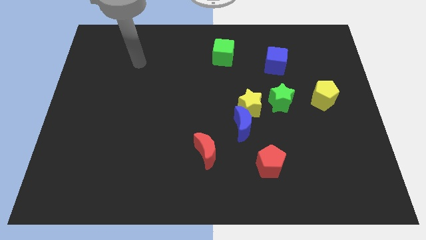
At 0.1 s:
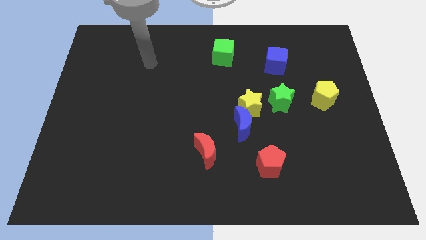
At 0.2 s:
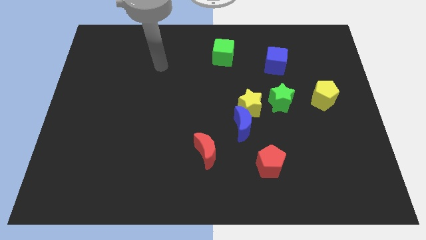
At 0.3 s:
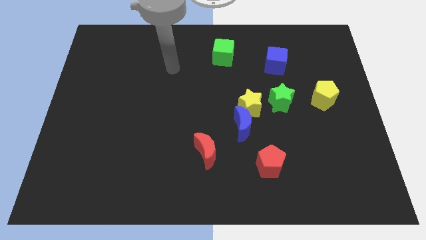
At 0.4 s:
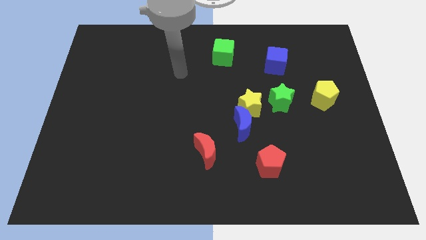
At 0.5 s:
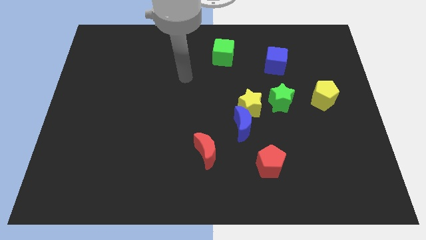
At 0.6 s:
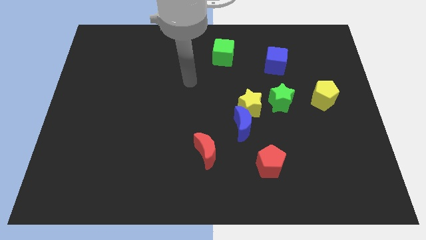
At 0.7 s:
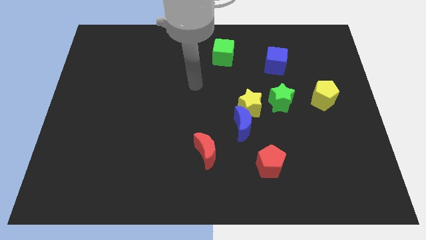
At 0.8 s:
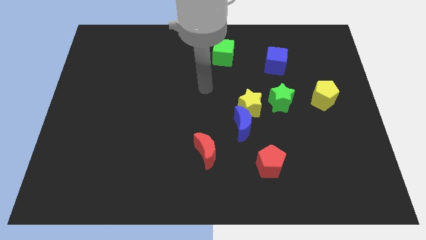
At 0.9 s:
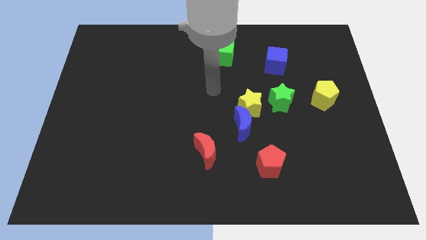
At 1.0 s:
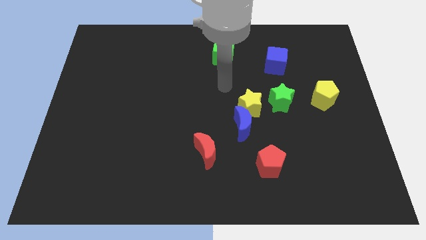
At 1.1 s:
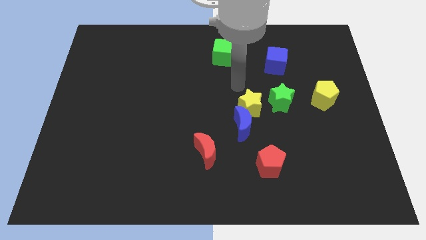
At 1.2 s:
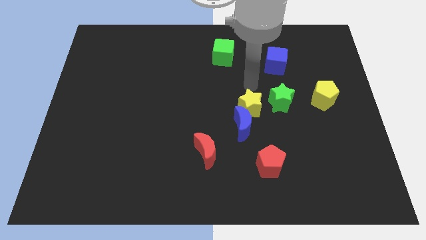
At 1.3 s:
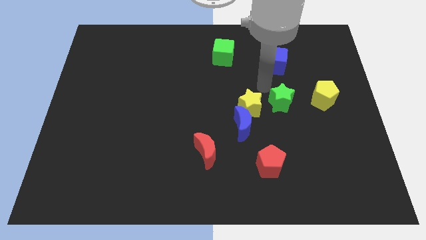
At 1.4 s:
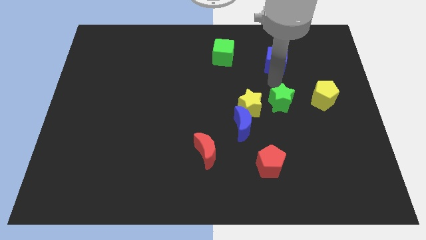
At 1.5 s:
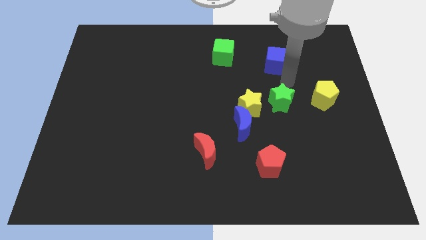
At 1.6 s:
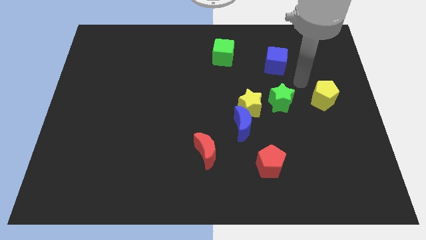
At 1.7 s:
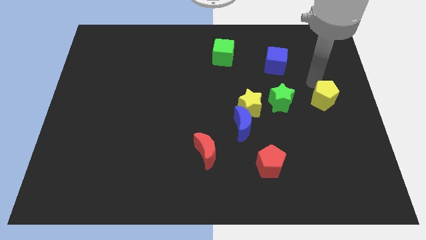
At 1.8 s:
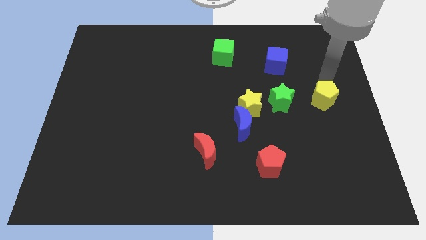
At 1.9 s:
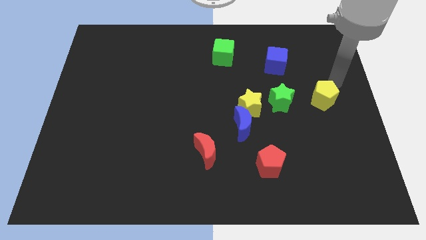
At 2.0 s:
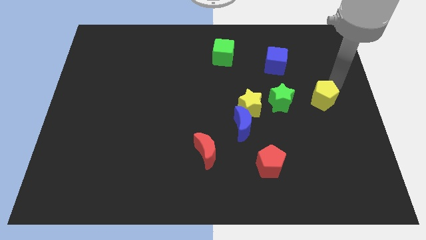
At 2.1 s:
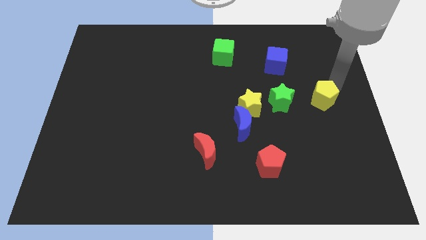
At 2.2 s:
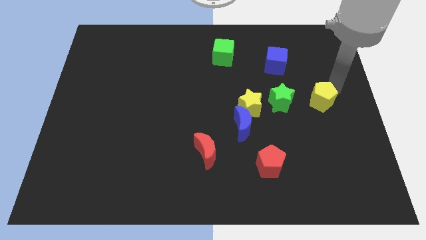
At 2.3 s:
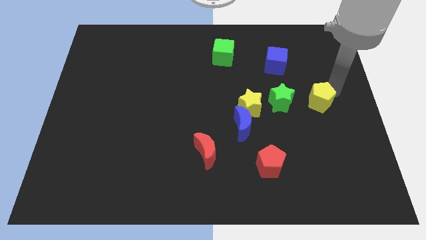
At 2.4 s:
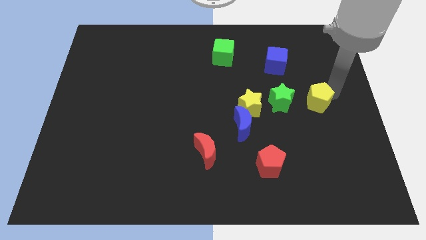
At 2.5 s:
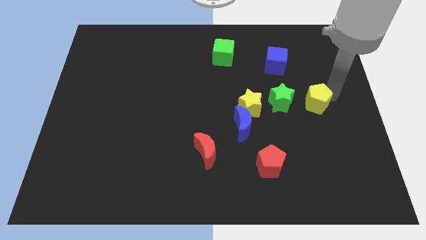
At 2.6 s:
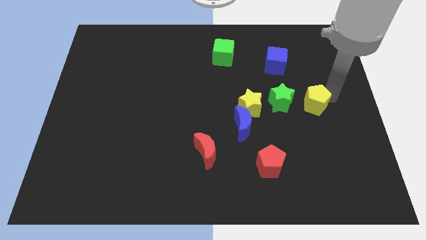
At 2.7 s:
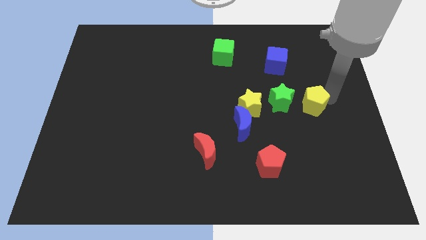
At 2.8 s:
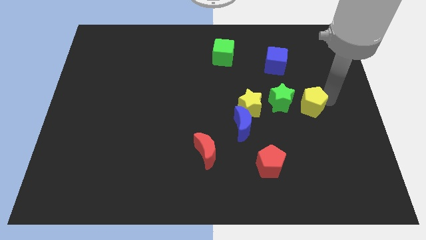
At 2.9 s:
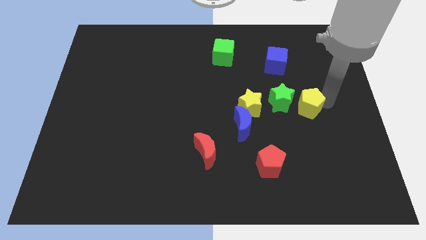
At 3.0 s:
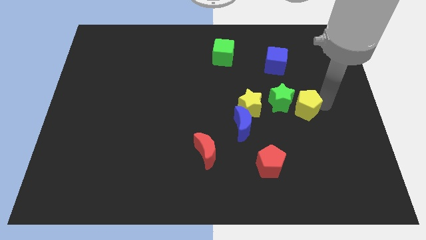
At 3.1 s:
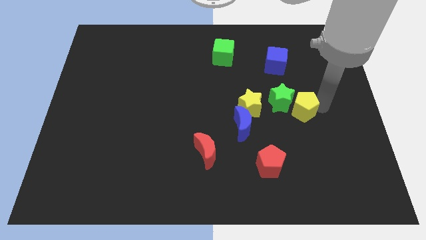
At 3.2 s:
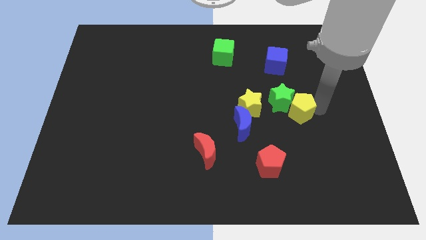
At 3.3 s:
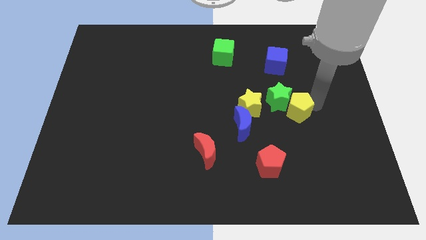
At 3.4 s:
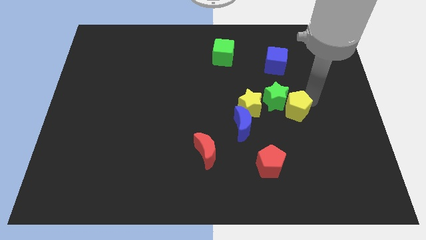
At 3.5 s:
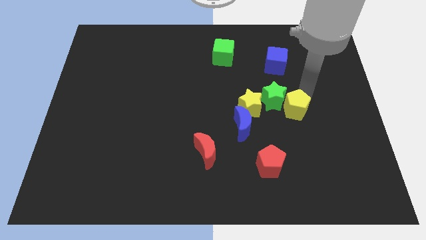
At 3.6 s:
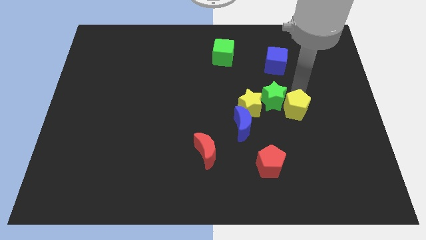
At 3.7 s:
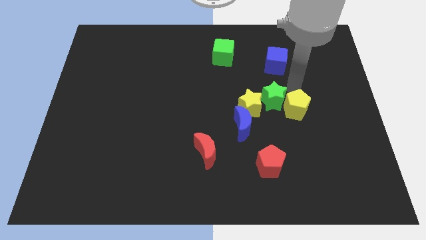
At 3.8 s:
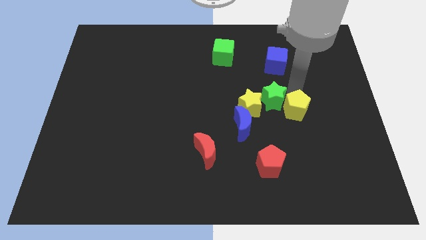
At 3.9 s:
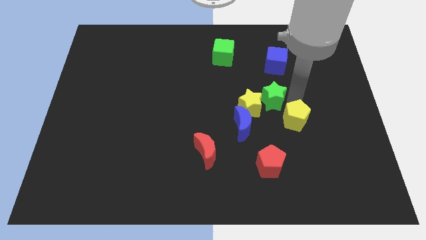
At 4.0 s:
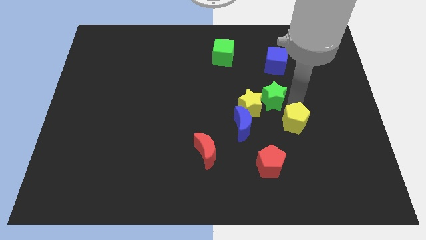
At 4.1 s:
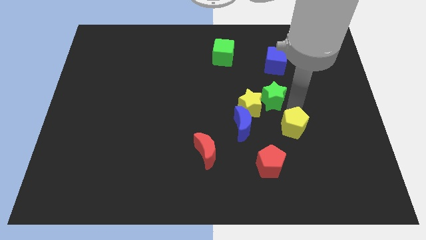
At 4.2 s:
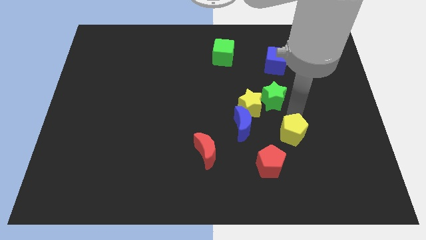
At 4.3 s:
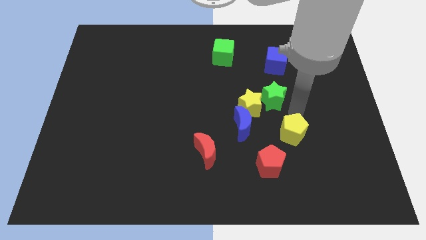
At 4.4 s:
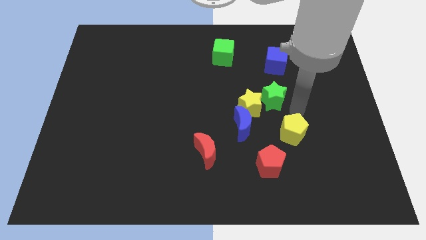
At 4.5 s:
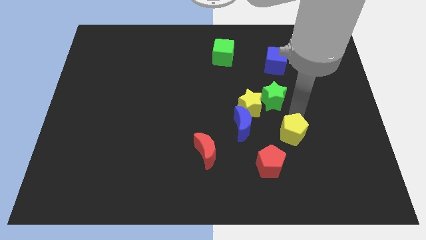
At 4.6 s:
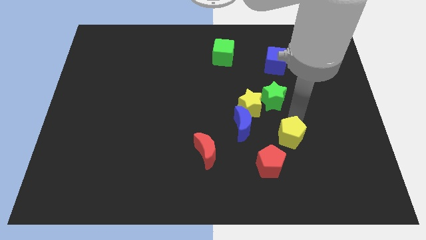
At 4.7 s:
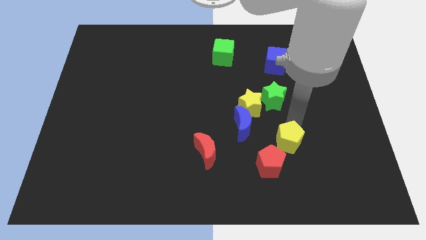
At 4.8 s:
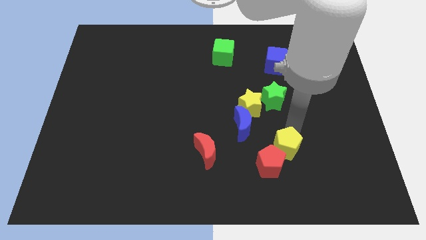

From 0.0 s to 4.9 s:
move the yellow pentagon to the red pentagon

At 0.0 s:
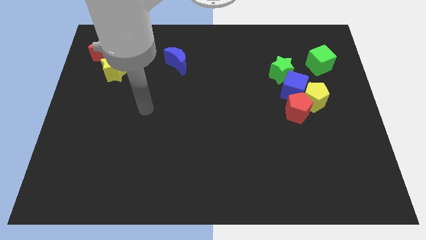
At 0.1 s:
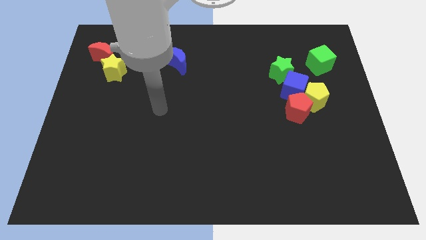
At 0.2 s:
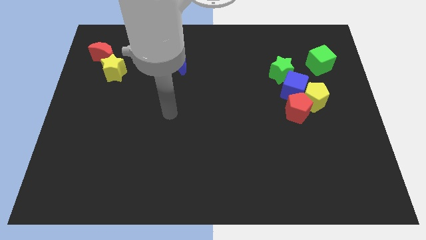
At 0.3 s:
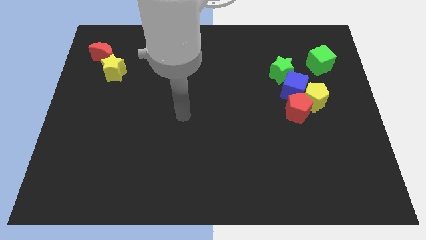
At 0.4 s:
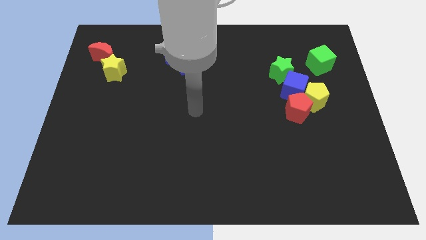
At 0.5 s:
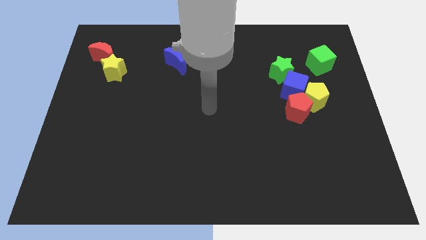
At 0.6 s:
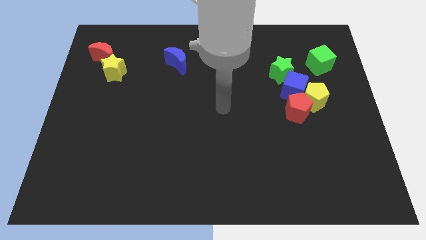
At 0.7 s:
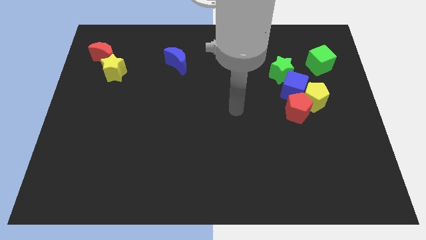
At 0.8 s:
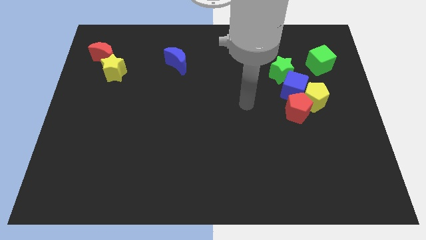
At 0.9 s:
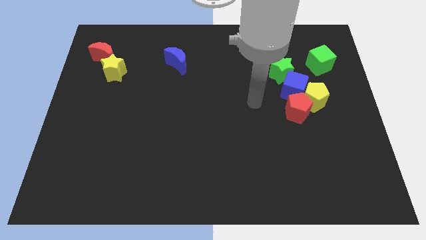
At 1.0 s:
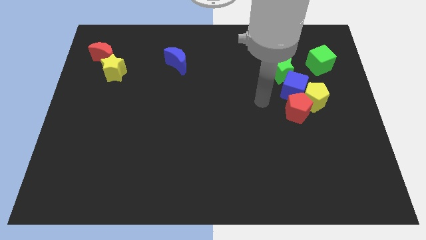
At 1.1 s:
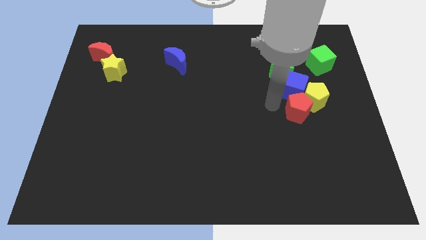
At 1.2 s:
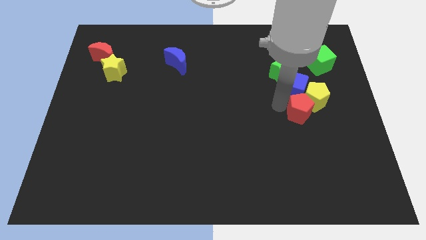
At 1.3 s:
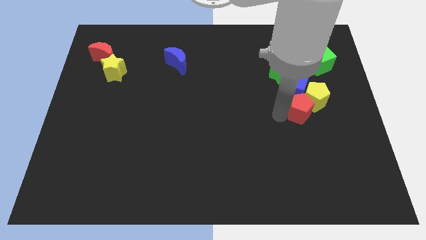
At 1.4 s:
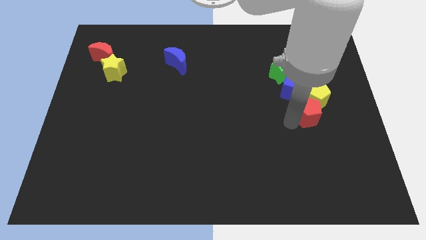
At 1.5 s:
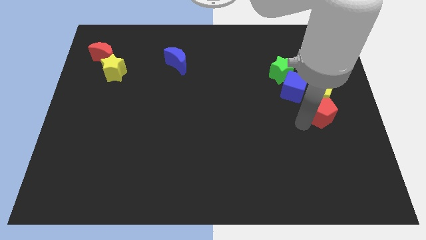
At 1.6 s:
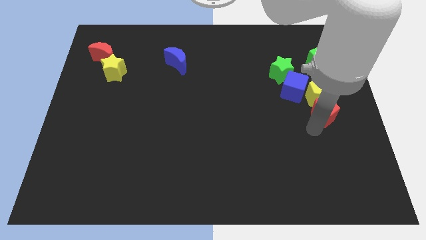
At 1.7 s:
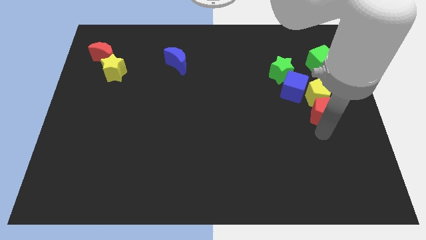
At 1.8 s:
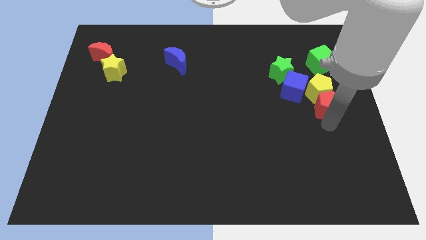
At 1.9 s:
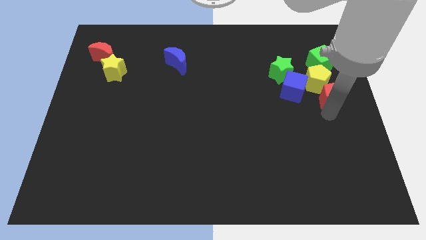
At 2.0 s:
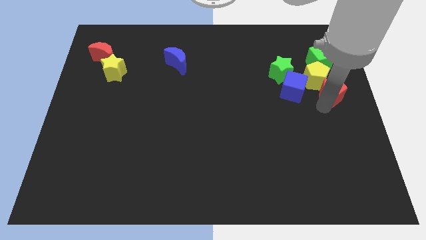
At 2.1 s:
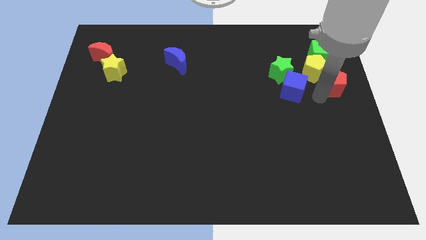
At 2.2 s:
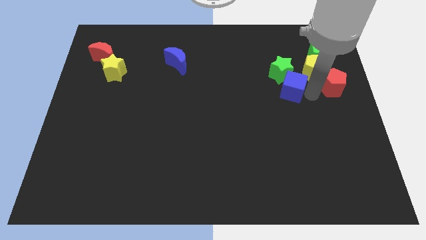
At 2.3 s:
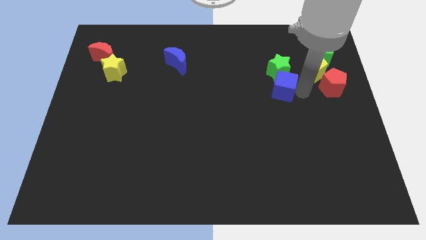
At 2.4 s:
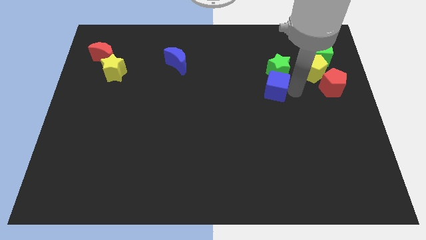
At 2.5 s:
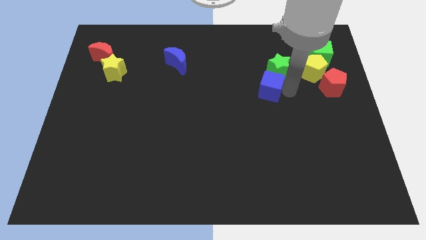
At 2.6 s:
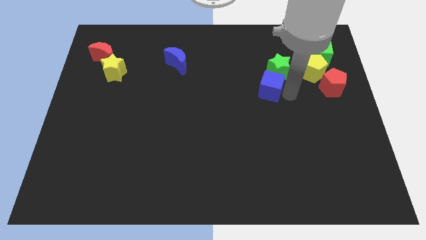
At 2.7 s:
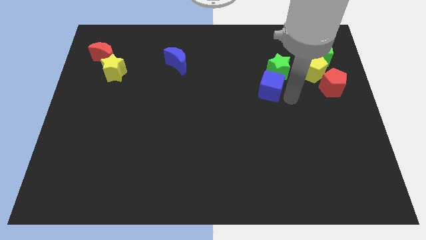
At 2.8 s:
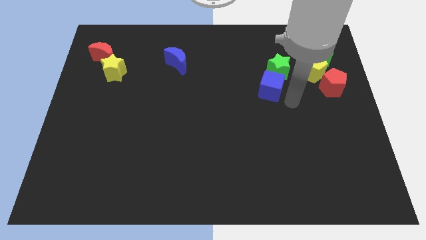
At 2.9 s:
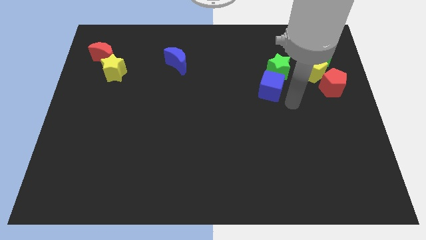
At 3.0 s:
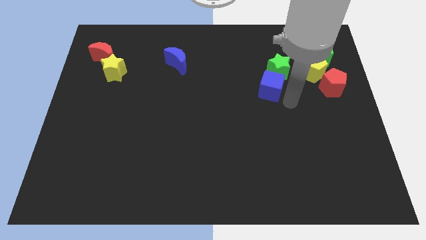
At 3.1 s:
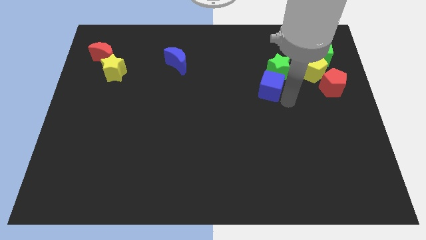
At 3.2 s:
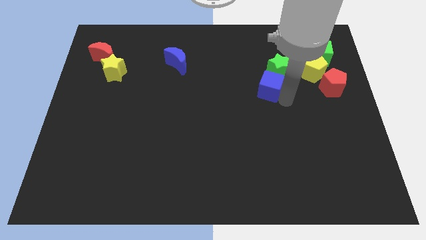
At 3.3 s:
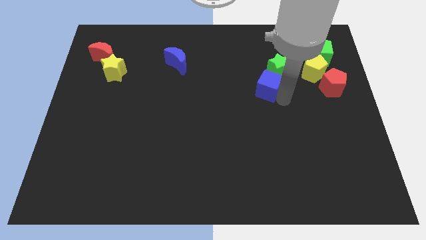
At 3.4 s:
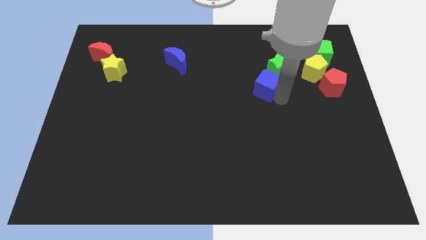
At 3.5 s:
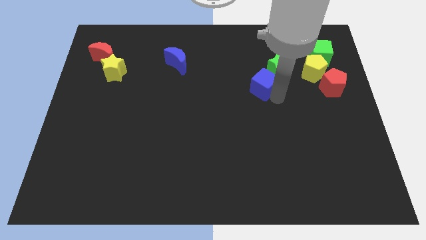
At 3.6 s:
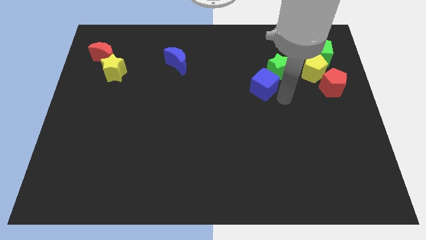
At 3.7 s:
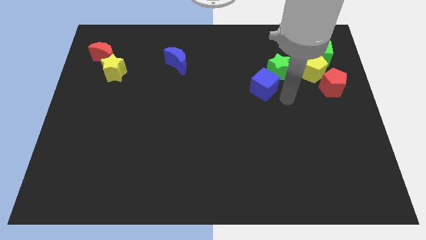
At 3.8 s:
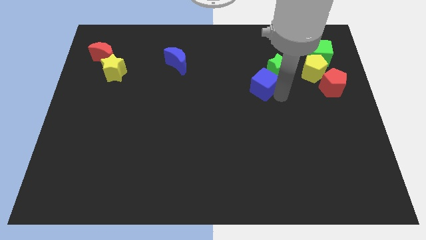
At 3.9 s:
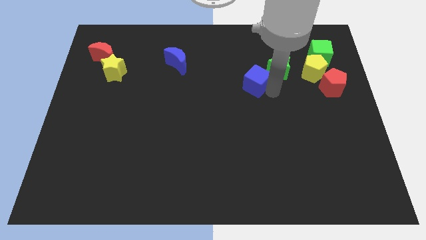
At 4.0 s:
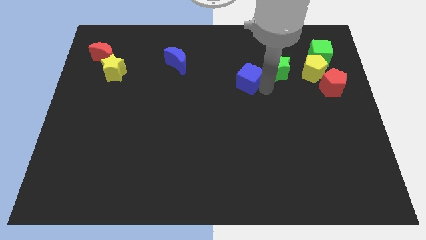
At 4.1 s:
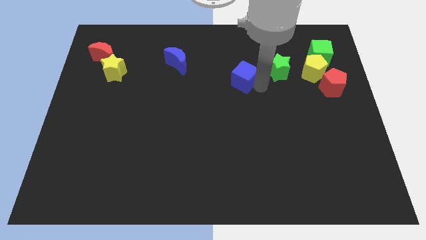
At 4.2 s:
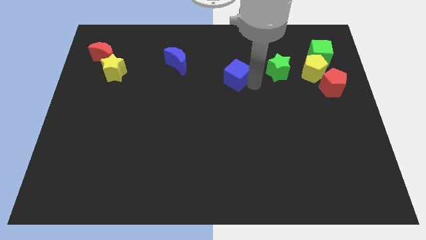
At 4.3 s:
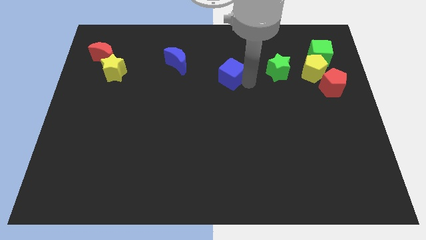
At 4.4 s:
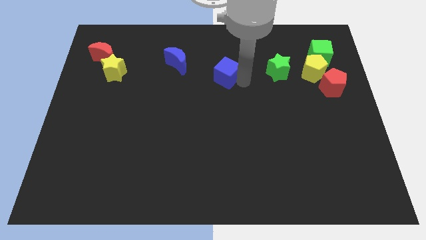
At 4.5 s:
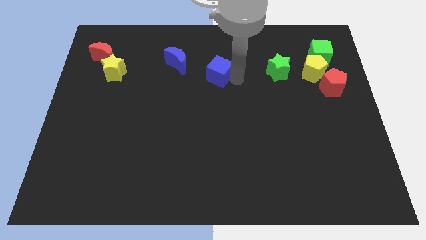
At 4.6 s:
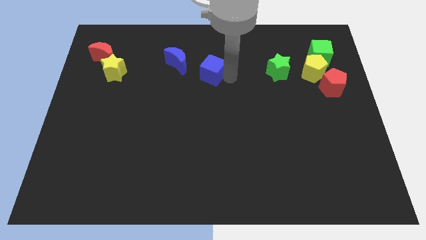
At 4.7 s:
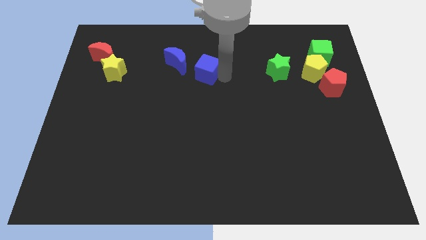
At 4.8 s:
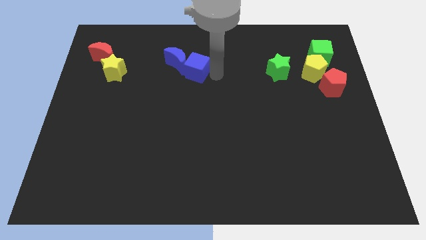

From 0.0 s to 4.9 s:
slide the blue cube to the blue moon
